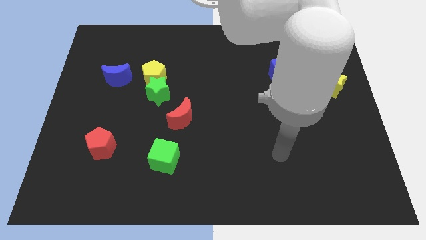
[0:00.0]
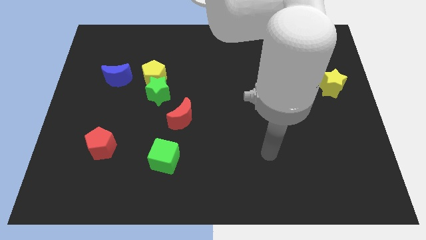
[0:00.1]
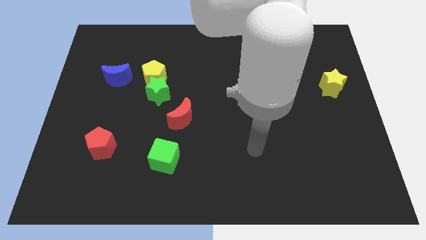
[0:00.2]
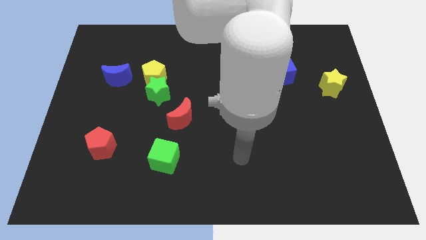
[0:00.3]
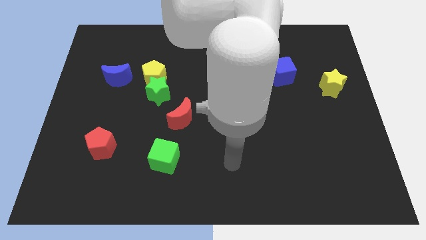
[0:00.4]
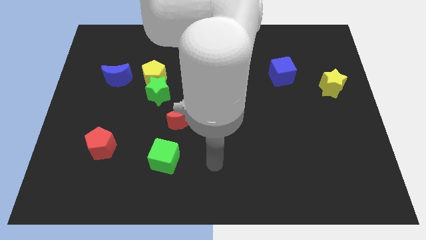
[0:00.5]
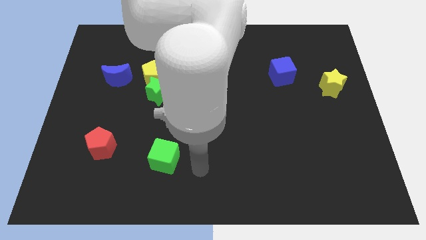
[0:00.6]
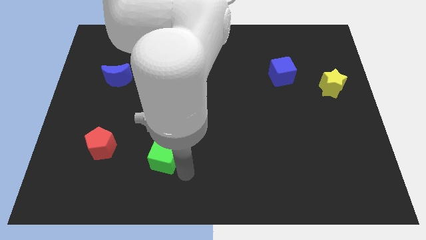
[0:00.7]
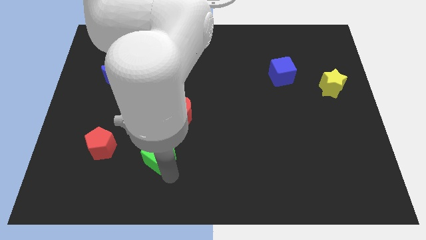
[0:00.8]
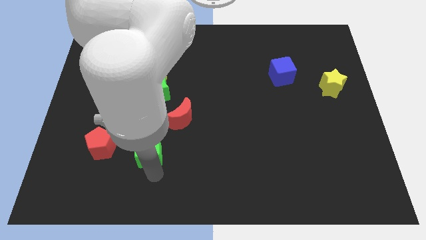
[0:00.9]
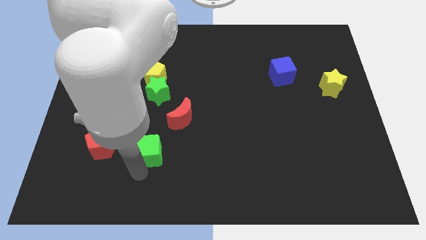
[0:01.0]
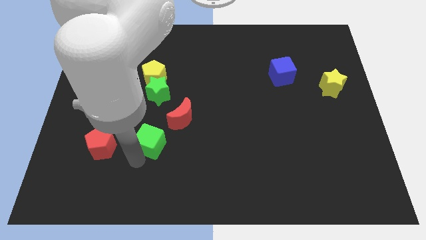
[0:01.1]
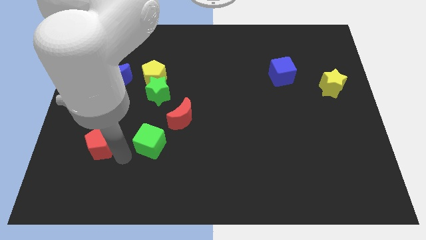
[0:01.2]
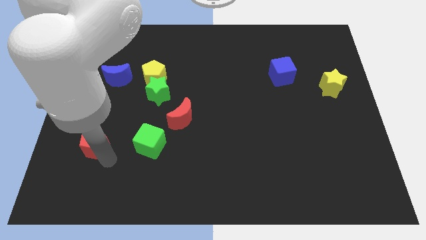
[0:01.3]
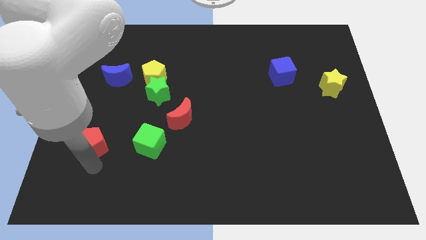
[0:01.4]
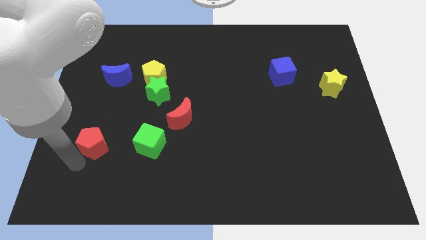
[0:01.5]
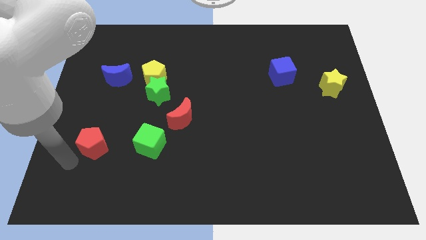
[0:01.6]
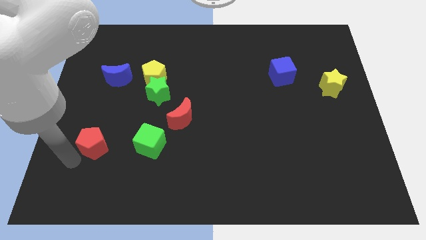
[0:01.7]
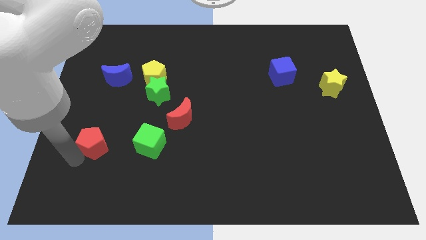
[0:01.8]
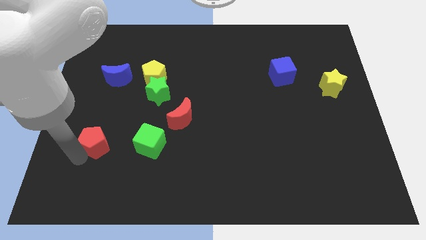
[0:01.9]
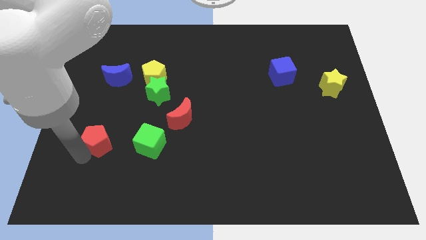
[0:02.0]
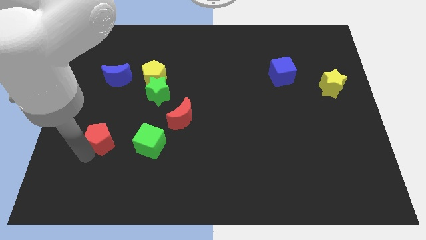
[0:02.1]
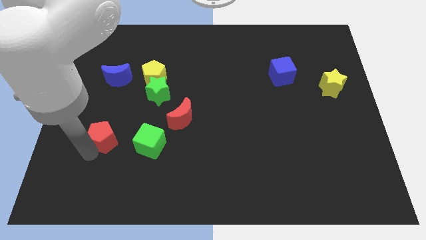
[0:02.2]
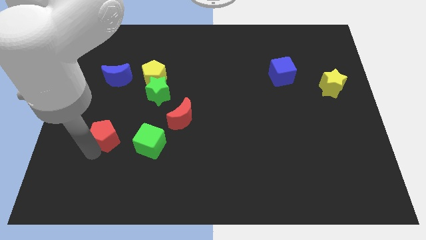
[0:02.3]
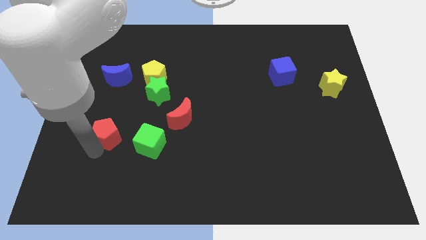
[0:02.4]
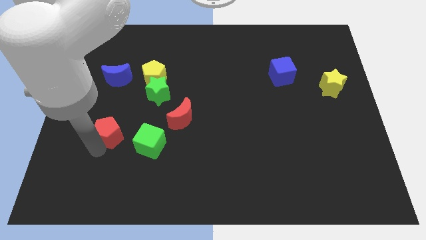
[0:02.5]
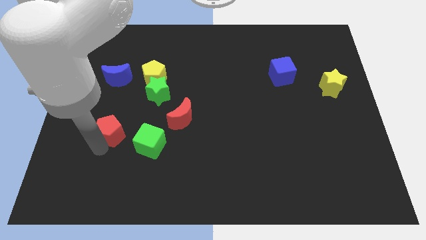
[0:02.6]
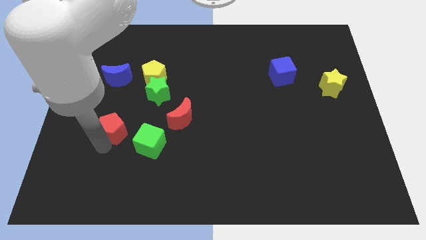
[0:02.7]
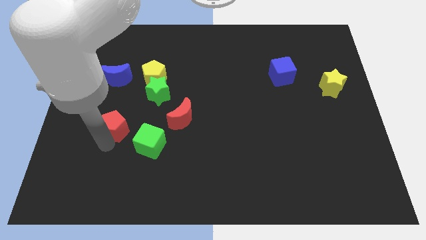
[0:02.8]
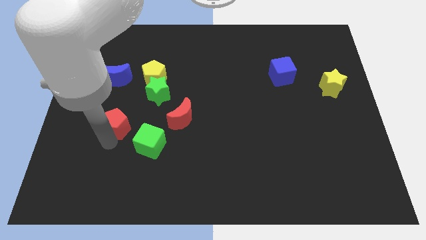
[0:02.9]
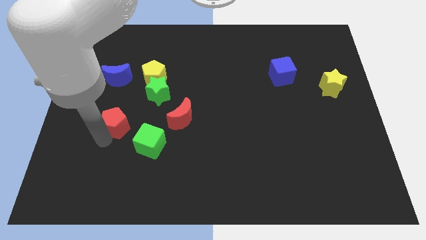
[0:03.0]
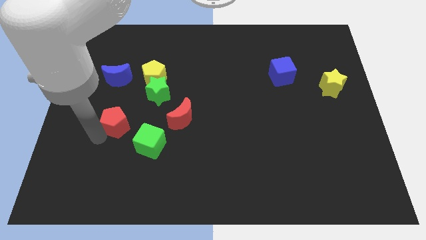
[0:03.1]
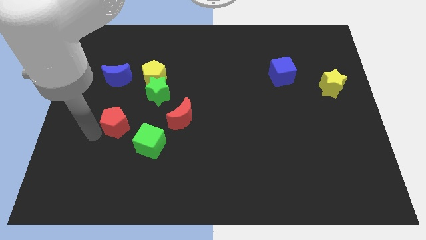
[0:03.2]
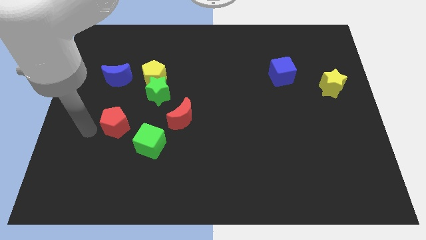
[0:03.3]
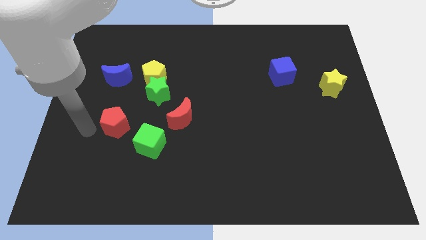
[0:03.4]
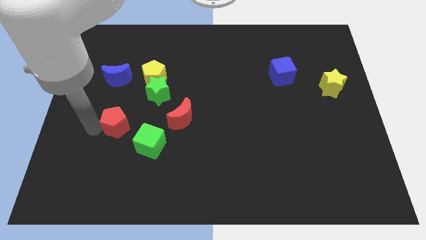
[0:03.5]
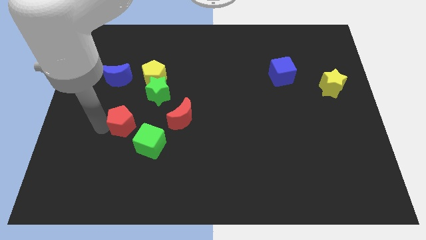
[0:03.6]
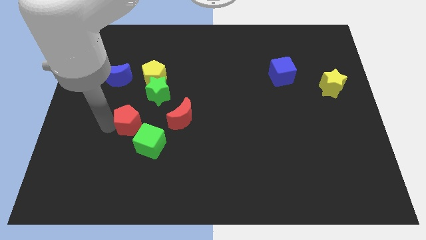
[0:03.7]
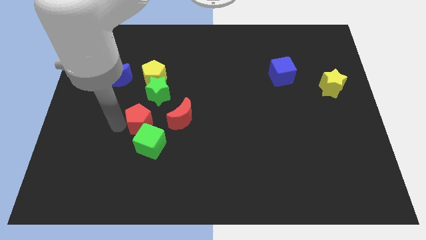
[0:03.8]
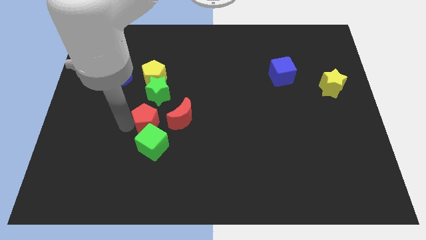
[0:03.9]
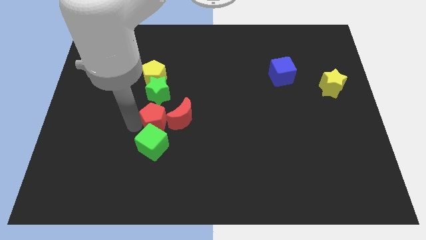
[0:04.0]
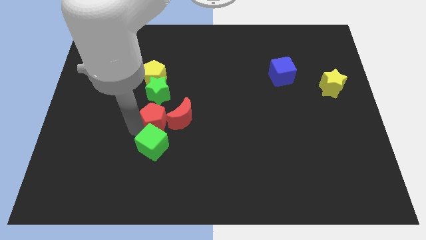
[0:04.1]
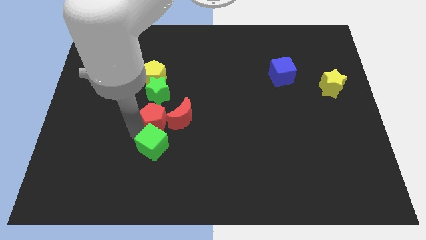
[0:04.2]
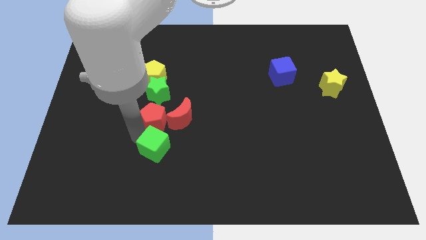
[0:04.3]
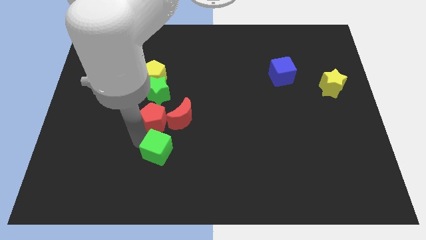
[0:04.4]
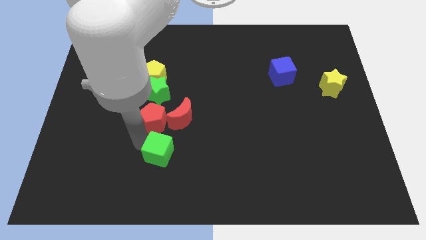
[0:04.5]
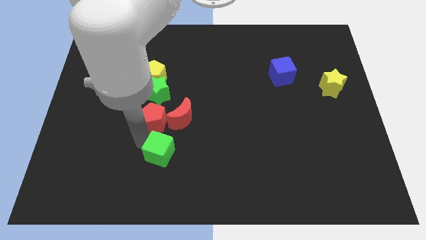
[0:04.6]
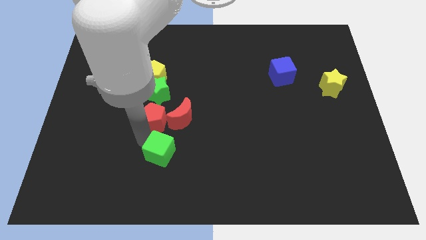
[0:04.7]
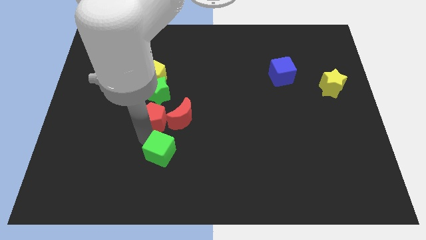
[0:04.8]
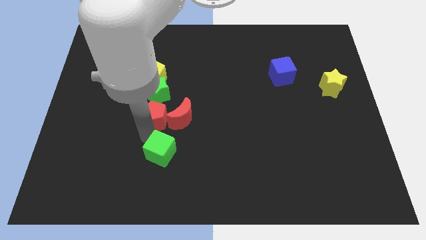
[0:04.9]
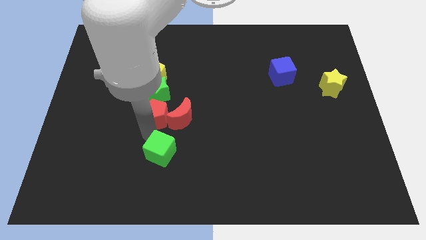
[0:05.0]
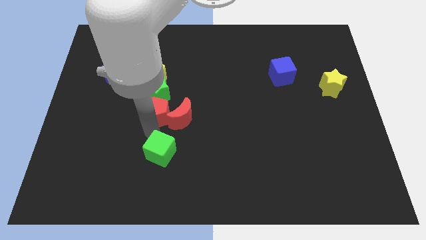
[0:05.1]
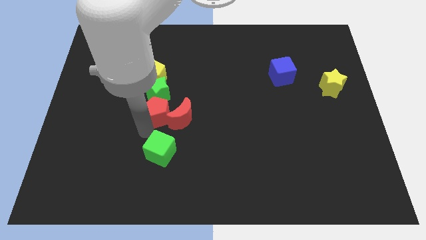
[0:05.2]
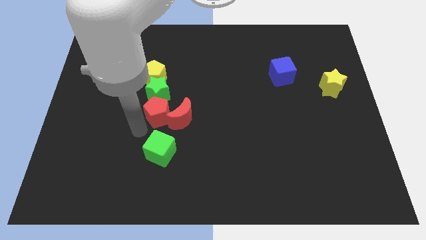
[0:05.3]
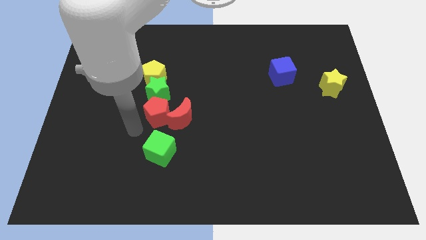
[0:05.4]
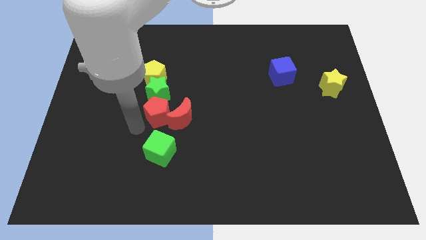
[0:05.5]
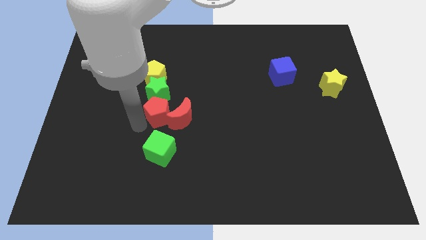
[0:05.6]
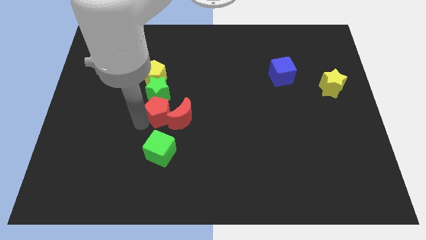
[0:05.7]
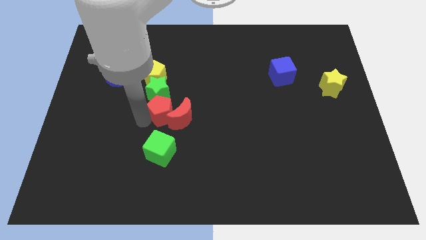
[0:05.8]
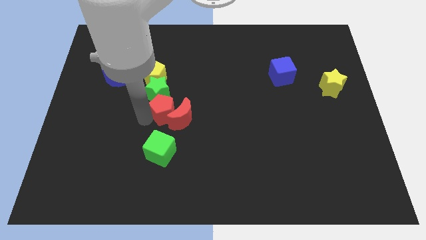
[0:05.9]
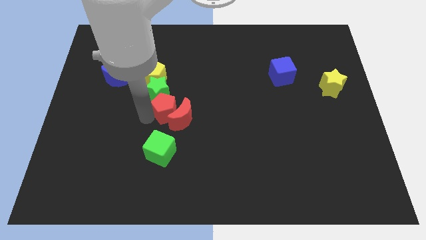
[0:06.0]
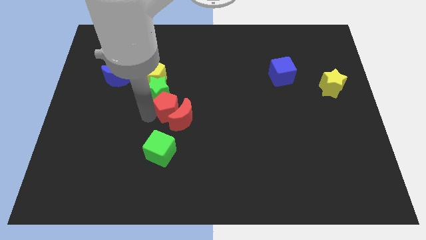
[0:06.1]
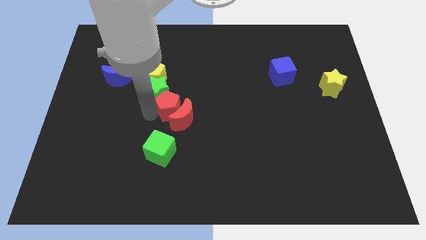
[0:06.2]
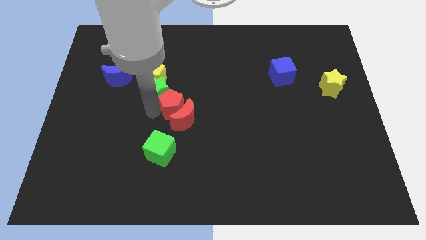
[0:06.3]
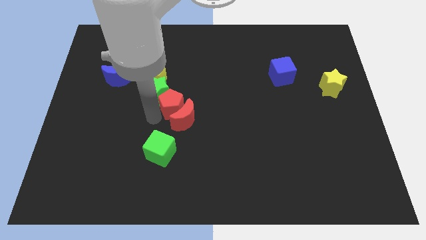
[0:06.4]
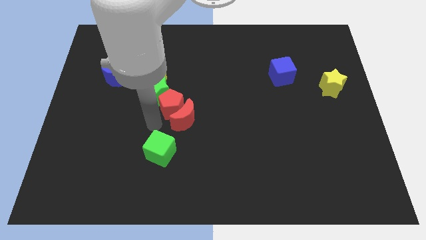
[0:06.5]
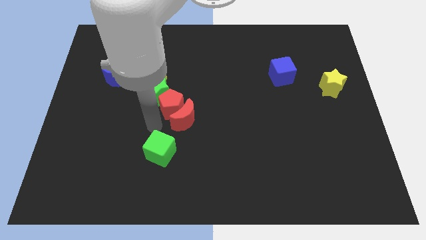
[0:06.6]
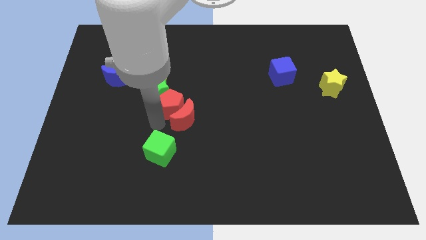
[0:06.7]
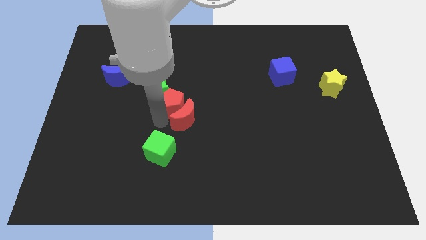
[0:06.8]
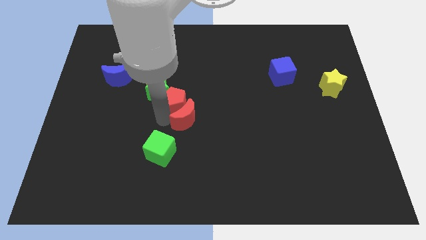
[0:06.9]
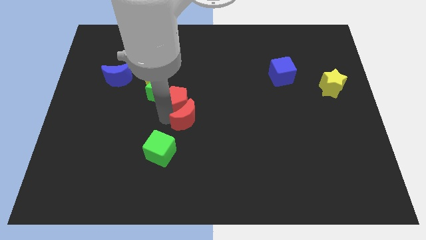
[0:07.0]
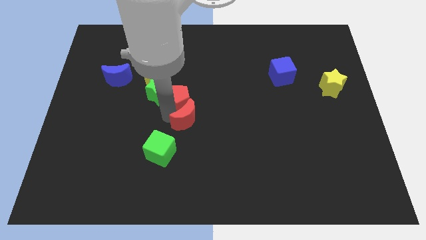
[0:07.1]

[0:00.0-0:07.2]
push the red pentagon diagonally upwards and right

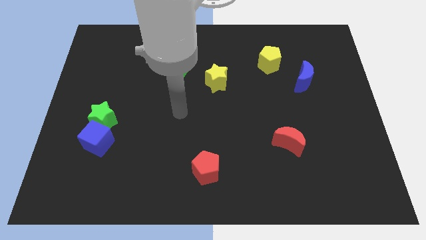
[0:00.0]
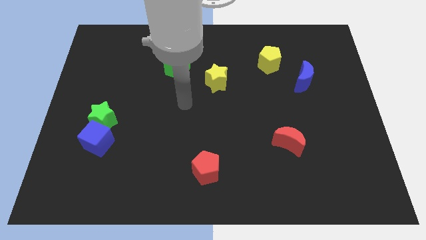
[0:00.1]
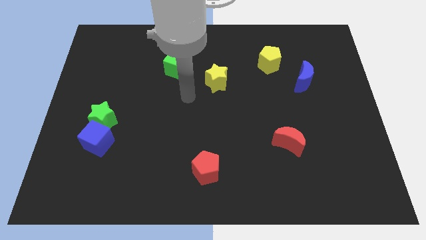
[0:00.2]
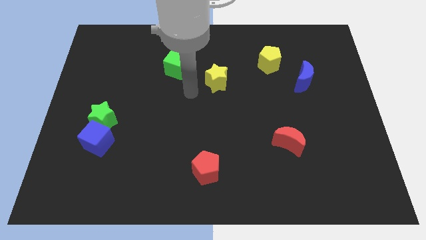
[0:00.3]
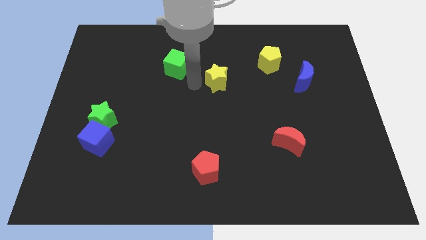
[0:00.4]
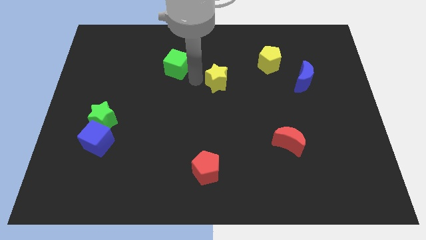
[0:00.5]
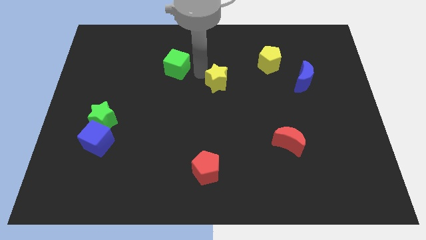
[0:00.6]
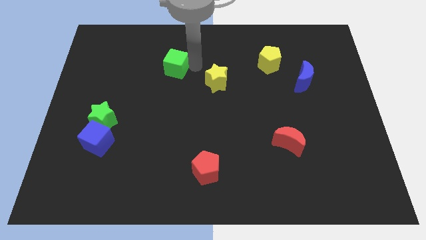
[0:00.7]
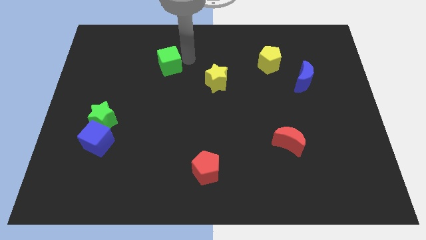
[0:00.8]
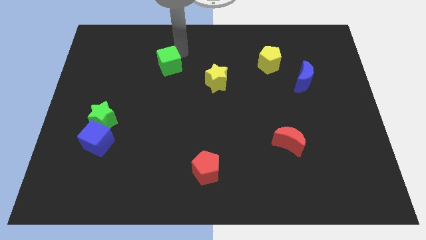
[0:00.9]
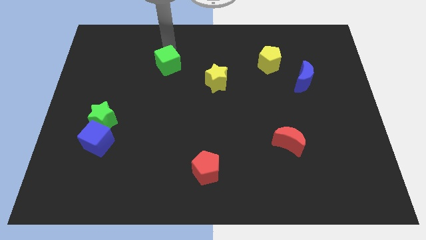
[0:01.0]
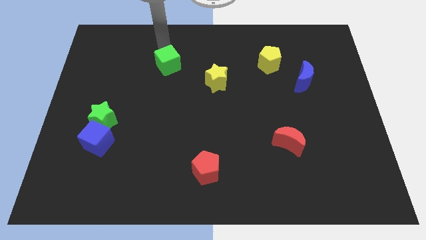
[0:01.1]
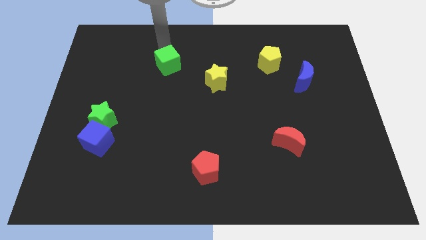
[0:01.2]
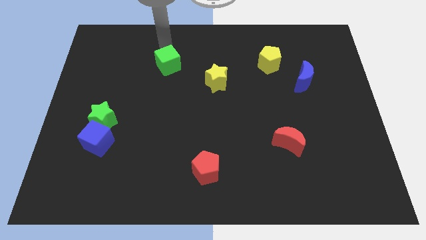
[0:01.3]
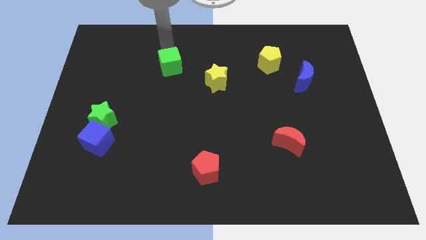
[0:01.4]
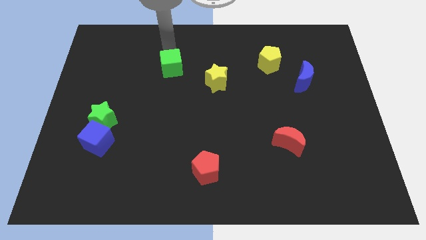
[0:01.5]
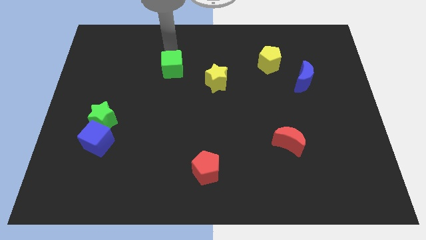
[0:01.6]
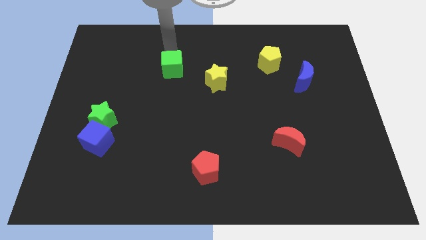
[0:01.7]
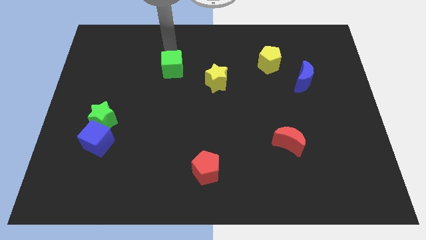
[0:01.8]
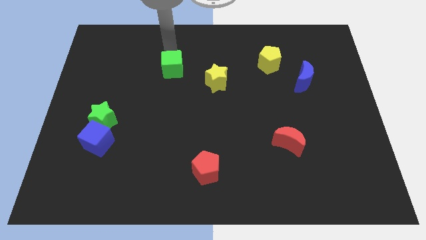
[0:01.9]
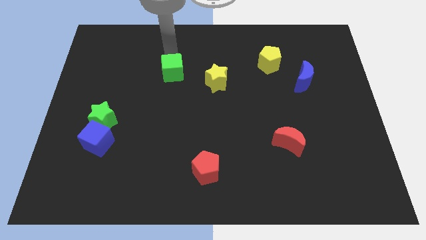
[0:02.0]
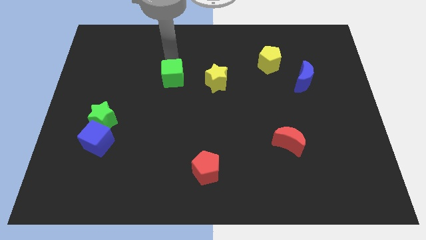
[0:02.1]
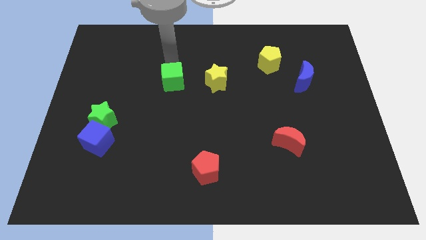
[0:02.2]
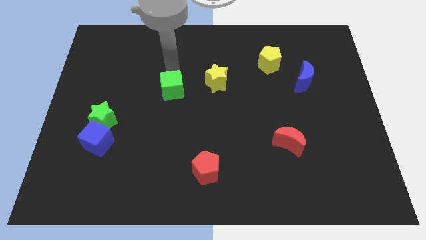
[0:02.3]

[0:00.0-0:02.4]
move the green cube down a little
